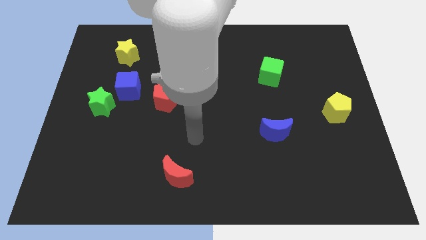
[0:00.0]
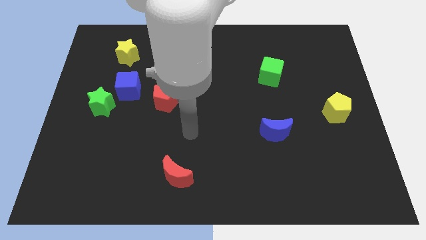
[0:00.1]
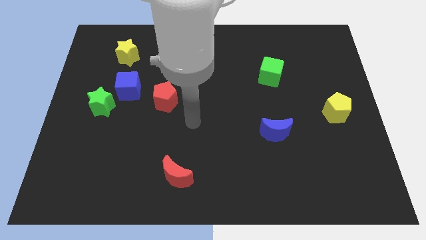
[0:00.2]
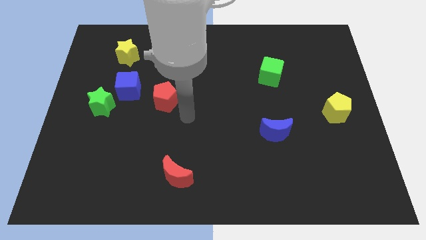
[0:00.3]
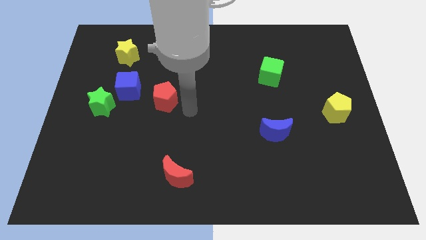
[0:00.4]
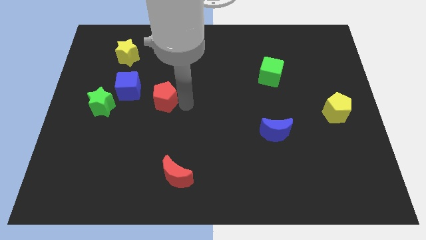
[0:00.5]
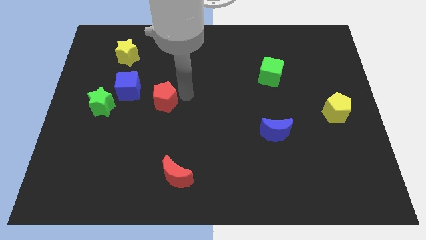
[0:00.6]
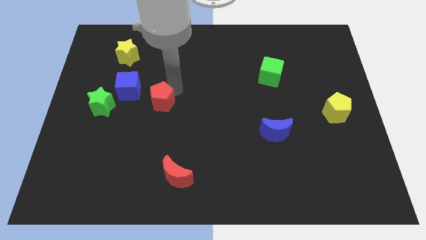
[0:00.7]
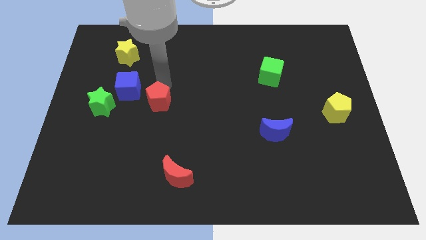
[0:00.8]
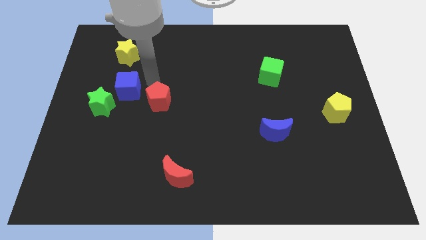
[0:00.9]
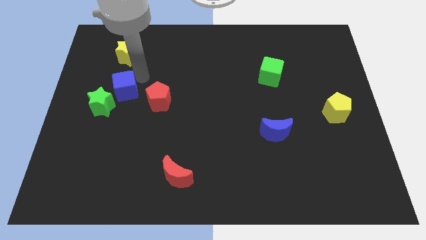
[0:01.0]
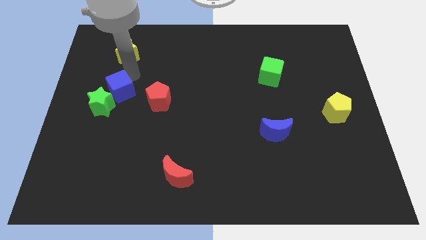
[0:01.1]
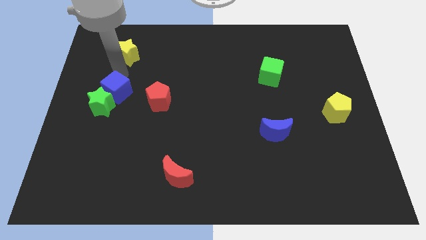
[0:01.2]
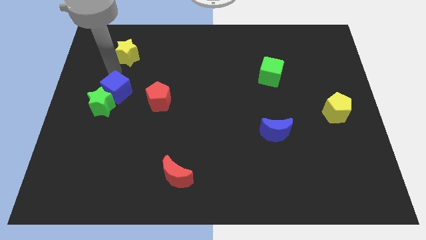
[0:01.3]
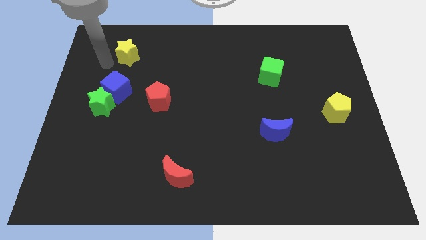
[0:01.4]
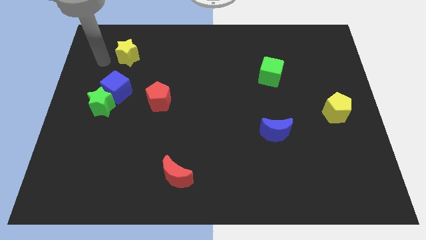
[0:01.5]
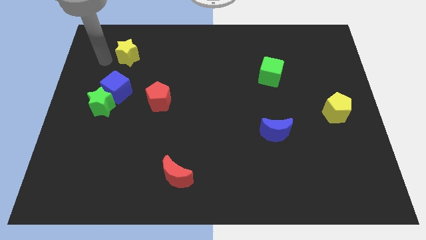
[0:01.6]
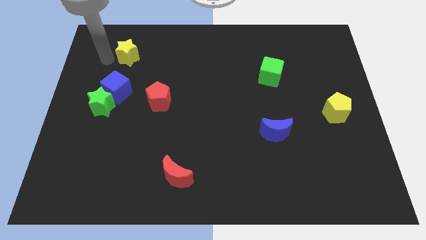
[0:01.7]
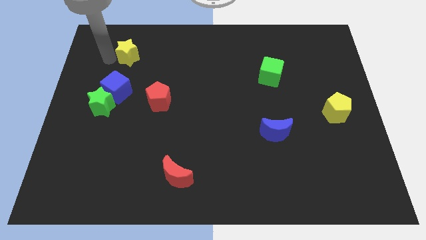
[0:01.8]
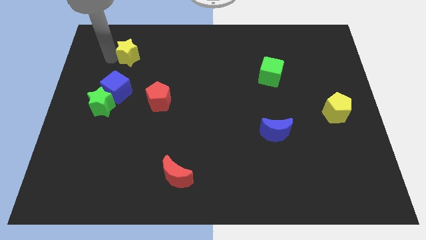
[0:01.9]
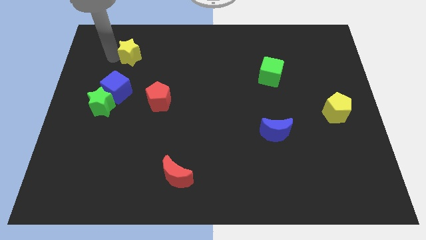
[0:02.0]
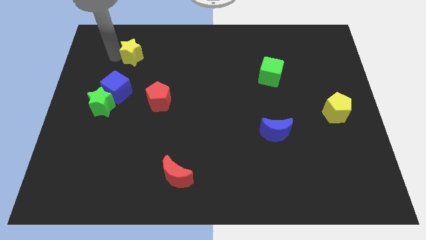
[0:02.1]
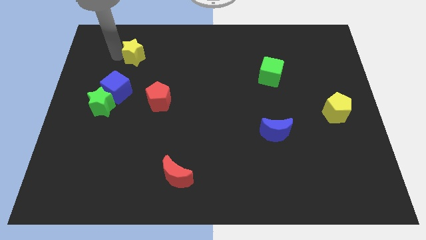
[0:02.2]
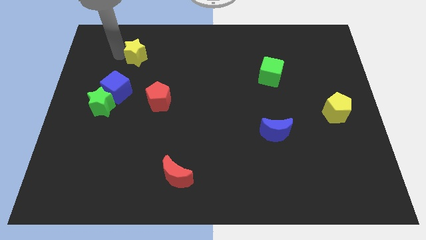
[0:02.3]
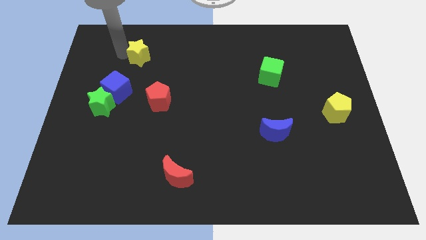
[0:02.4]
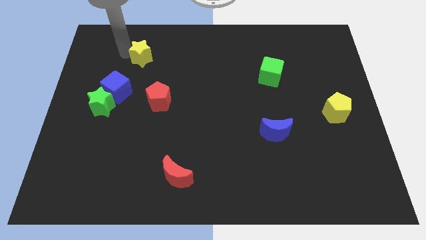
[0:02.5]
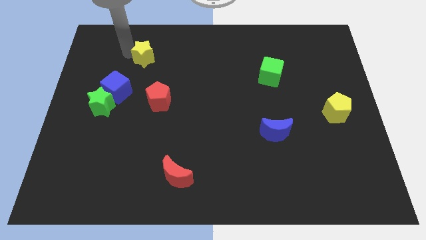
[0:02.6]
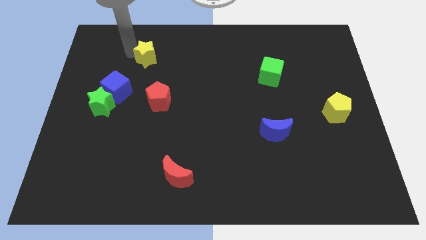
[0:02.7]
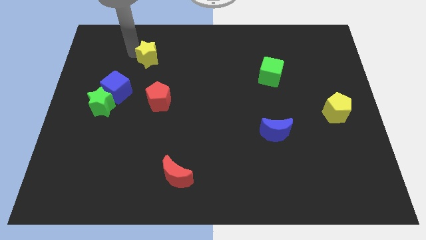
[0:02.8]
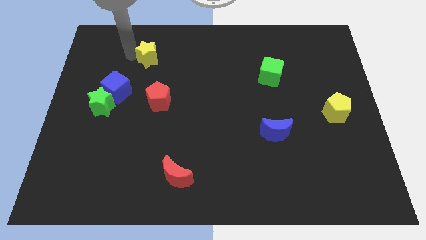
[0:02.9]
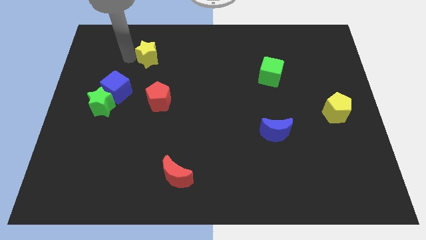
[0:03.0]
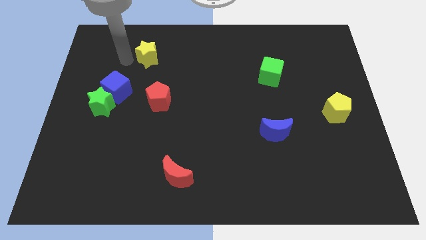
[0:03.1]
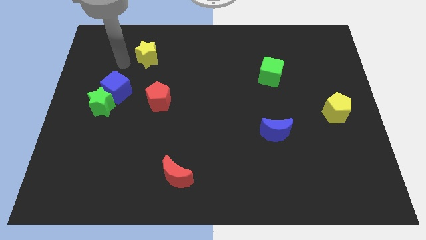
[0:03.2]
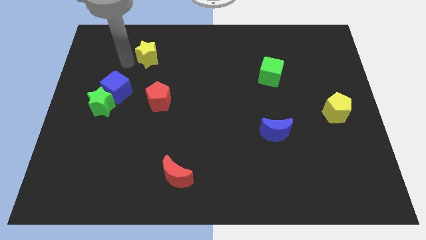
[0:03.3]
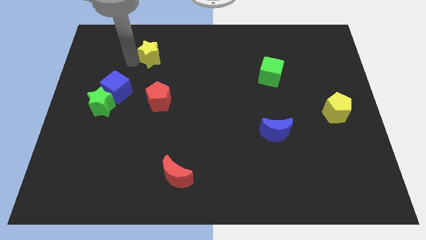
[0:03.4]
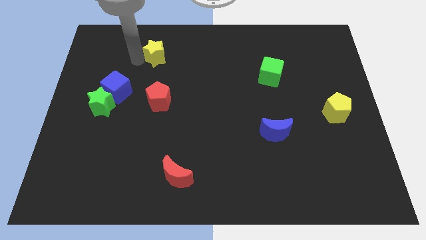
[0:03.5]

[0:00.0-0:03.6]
slide the yellow star a little bit right

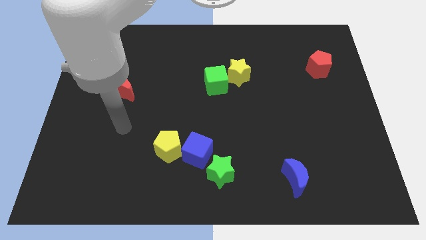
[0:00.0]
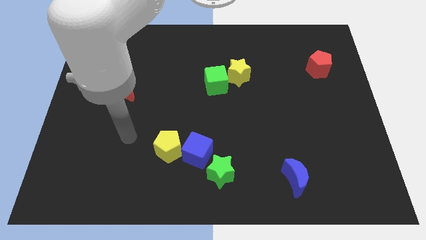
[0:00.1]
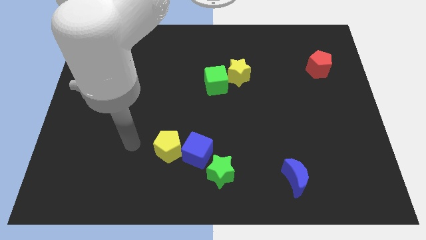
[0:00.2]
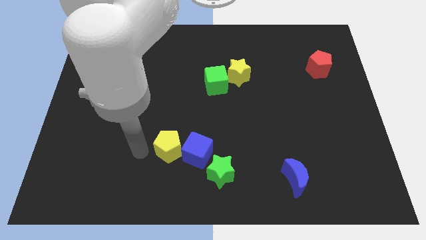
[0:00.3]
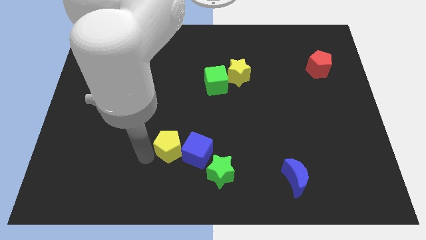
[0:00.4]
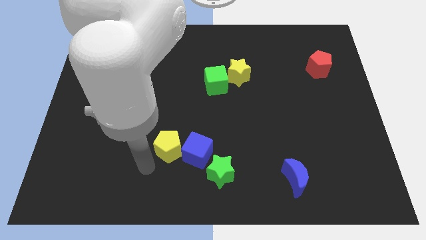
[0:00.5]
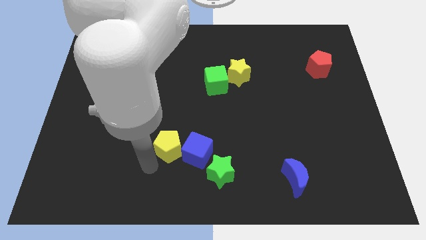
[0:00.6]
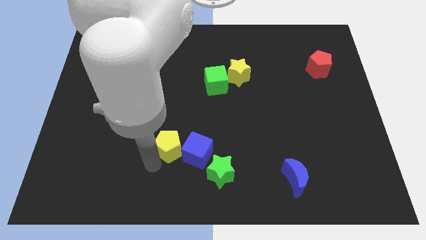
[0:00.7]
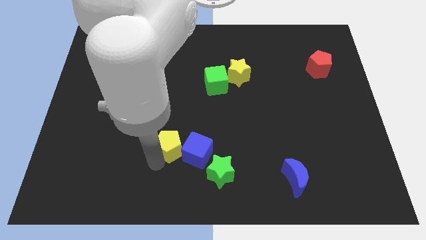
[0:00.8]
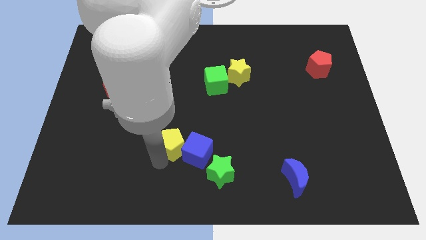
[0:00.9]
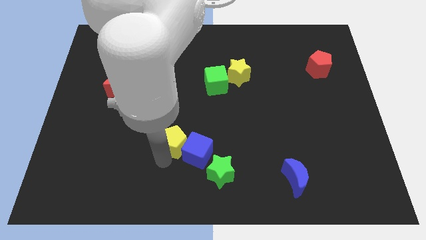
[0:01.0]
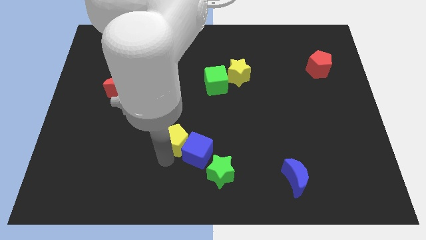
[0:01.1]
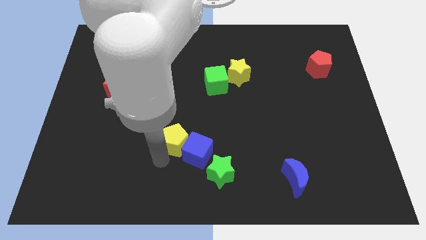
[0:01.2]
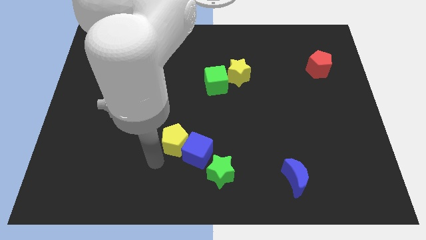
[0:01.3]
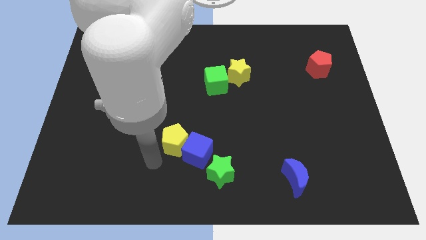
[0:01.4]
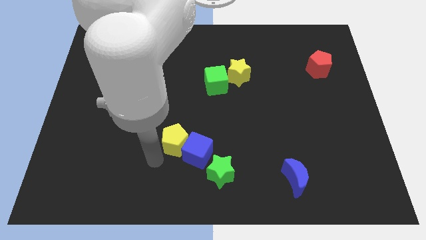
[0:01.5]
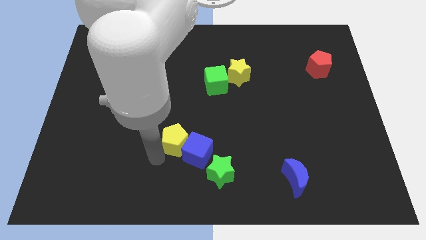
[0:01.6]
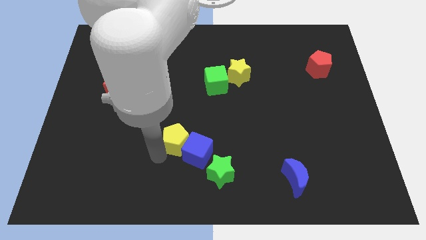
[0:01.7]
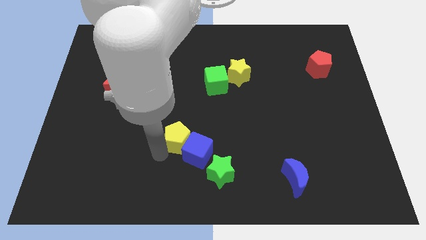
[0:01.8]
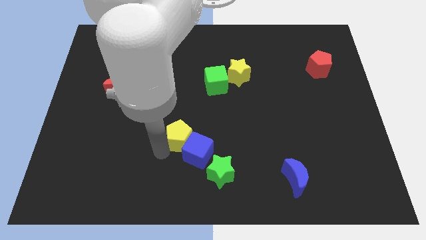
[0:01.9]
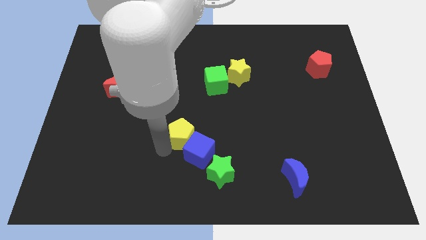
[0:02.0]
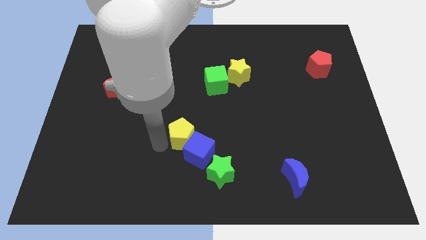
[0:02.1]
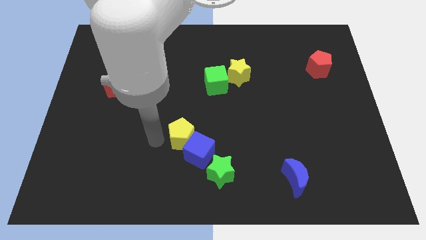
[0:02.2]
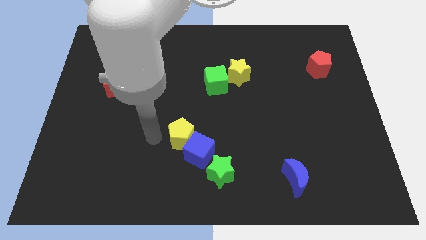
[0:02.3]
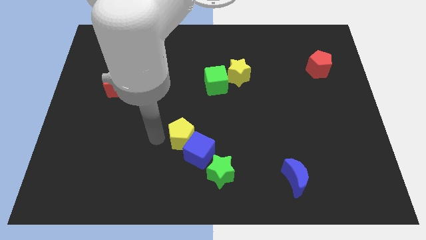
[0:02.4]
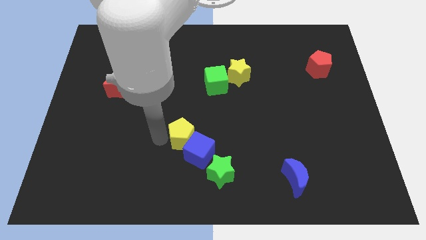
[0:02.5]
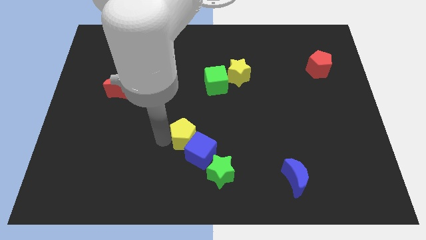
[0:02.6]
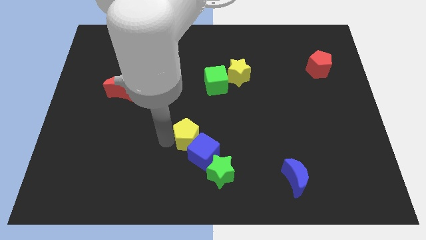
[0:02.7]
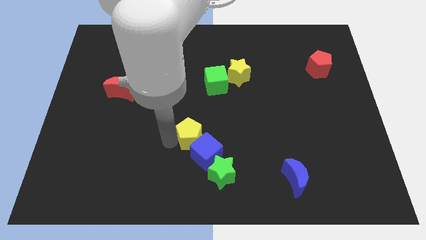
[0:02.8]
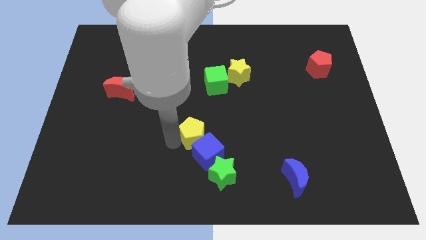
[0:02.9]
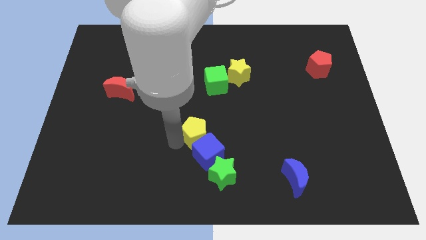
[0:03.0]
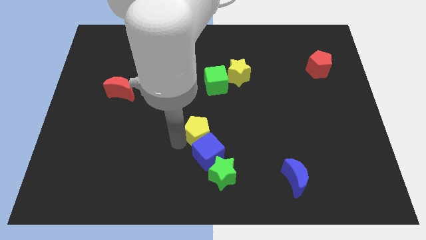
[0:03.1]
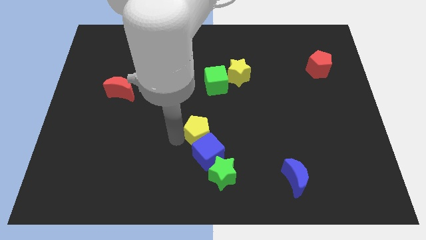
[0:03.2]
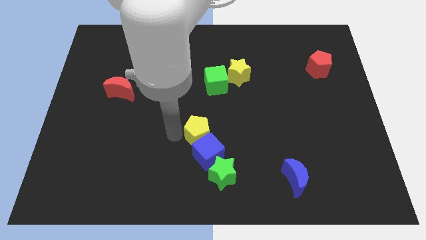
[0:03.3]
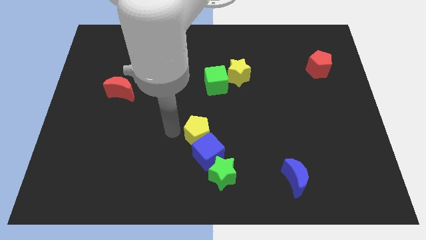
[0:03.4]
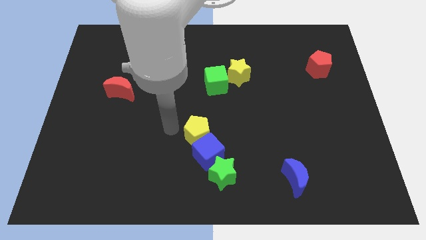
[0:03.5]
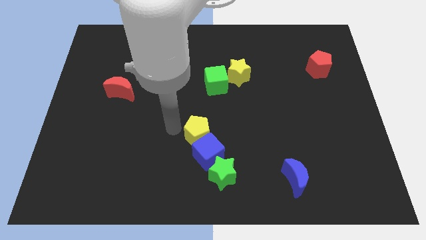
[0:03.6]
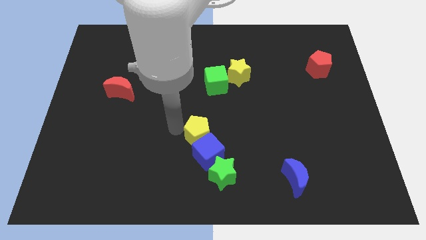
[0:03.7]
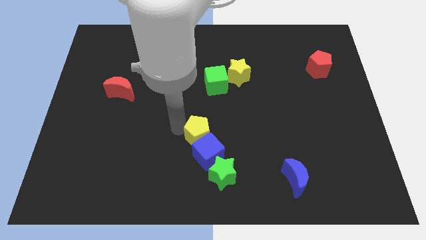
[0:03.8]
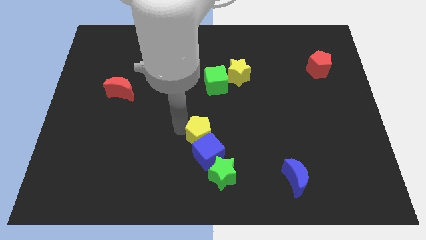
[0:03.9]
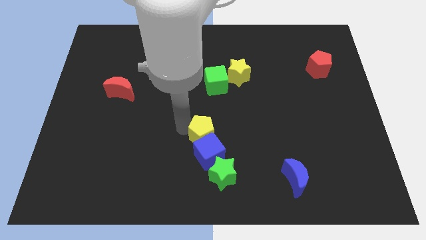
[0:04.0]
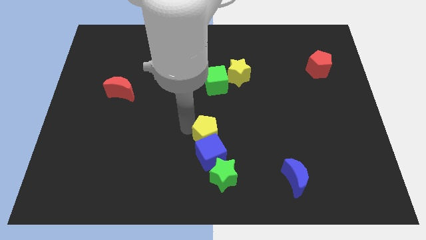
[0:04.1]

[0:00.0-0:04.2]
slide the yellow pentagon right somewhat

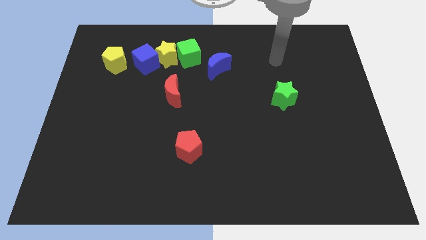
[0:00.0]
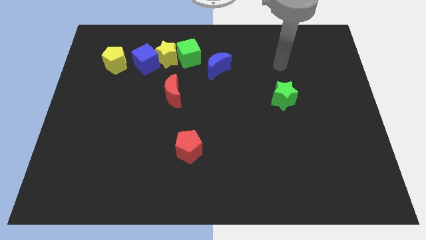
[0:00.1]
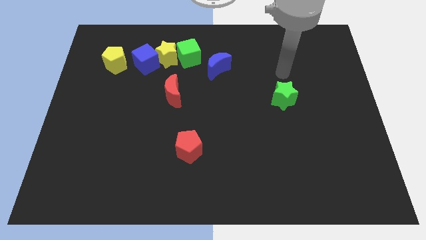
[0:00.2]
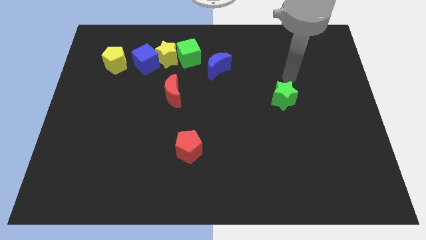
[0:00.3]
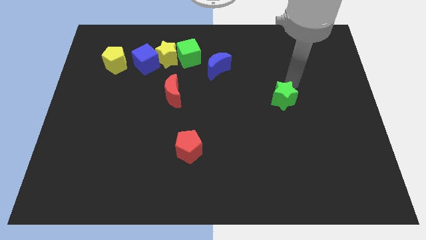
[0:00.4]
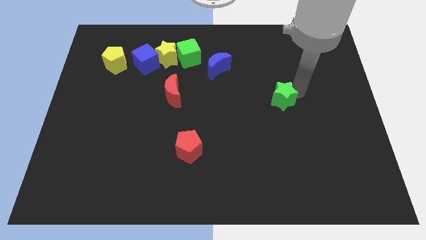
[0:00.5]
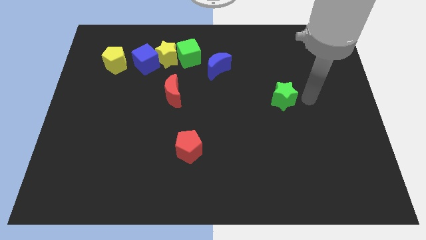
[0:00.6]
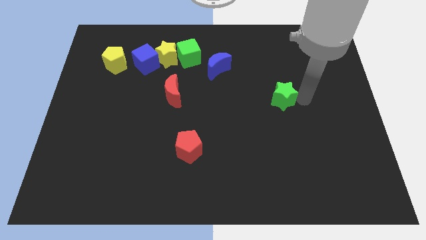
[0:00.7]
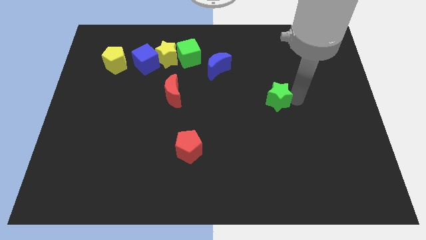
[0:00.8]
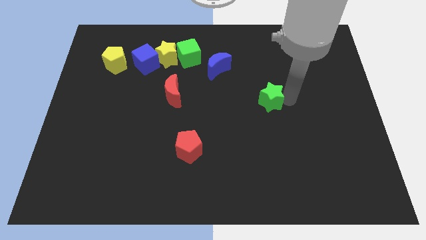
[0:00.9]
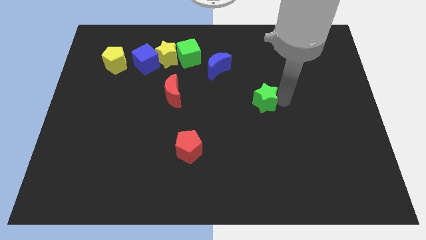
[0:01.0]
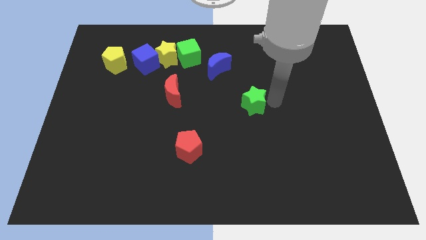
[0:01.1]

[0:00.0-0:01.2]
move the green star a little to the left
